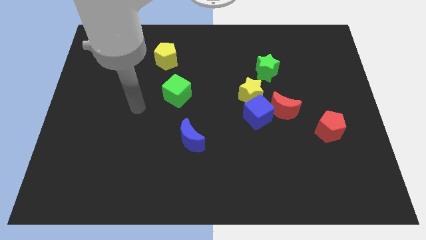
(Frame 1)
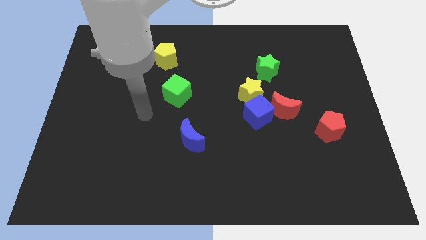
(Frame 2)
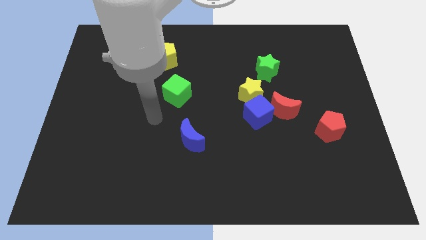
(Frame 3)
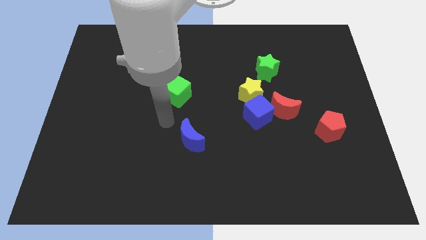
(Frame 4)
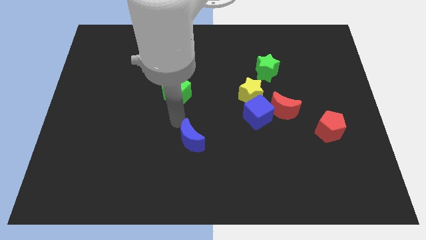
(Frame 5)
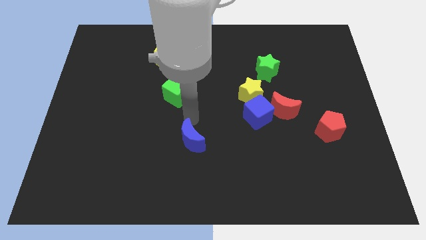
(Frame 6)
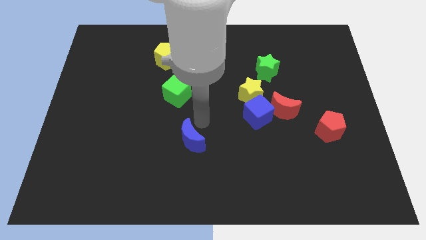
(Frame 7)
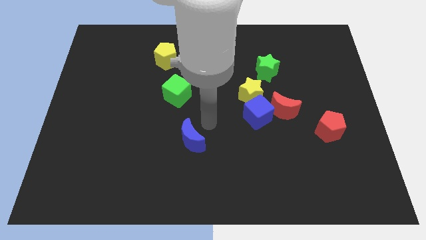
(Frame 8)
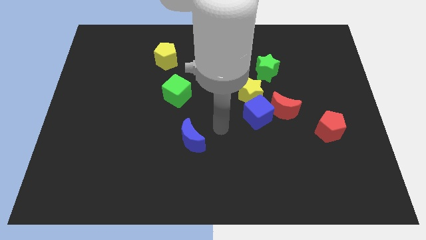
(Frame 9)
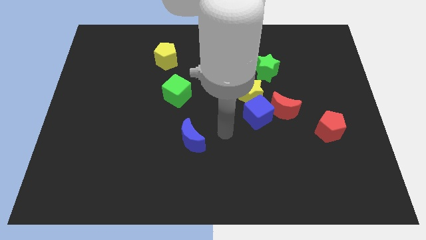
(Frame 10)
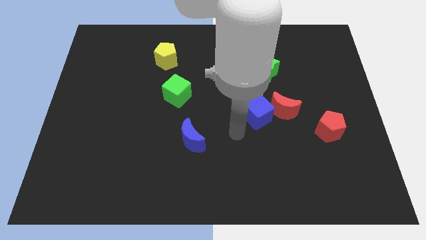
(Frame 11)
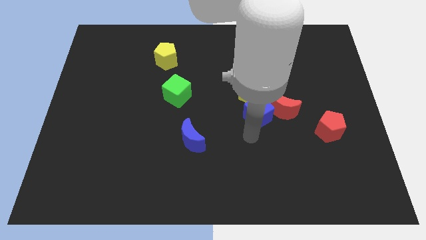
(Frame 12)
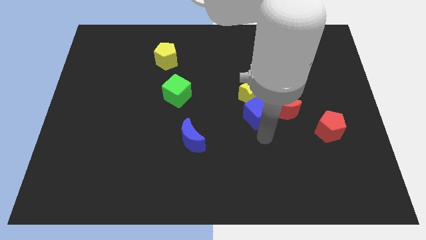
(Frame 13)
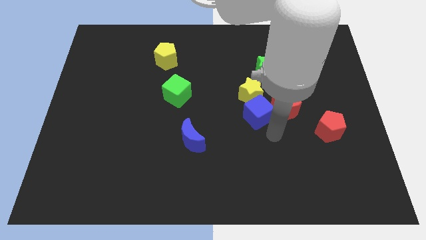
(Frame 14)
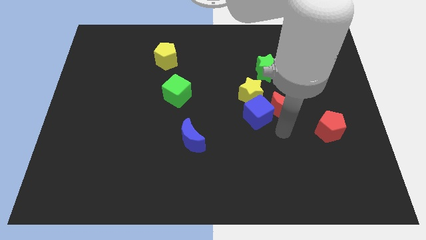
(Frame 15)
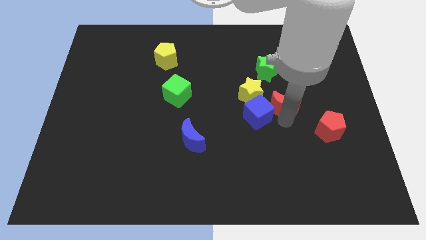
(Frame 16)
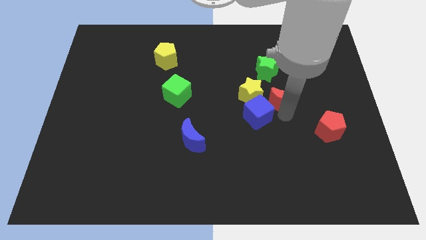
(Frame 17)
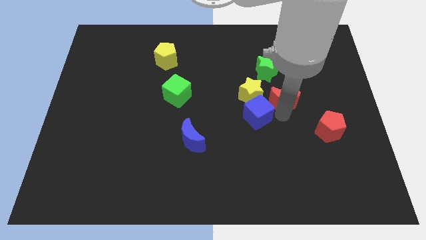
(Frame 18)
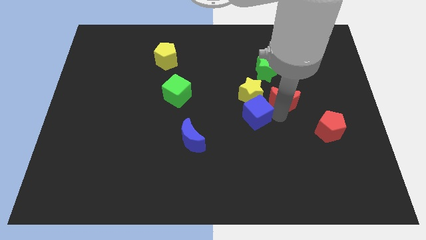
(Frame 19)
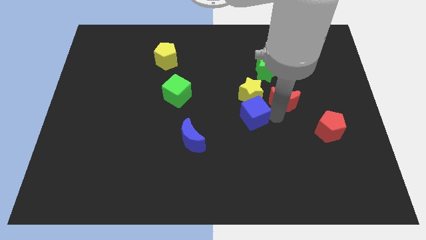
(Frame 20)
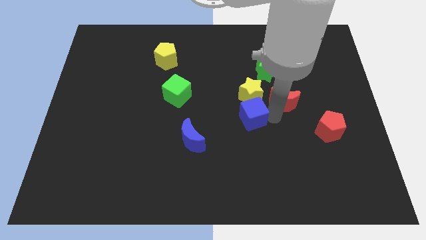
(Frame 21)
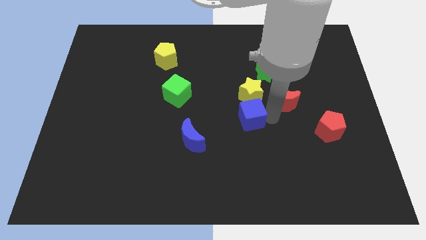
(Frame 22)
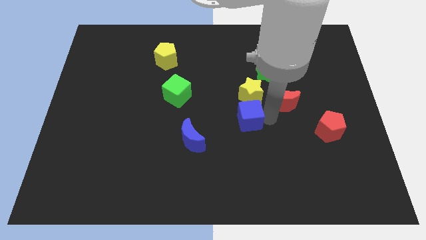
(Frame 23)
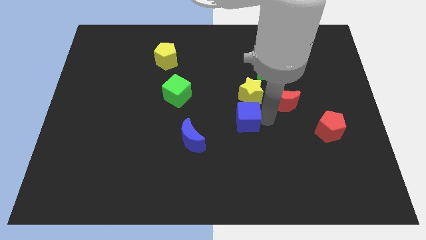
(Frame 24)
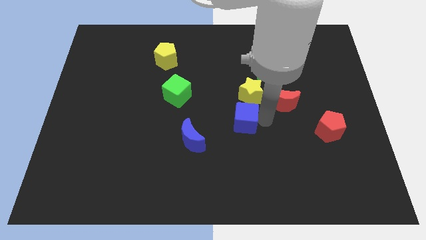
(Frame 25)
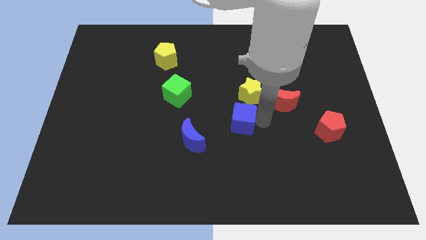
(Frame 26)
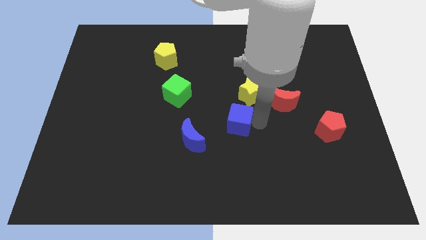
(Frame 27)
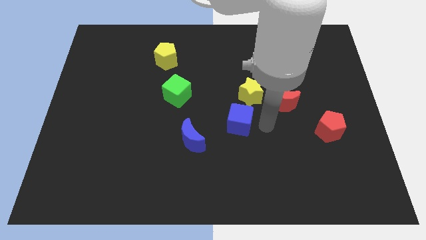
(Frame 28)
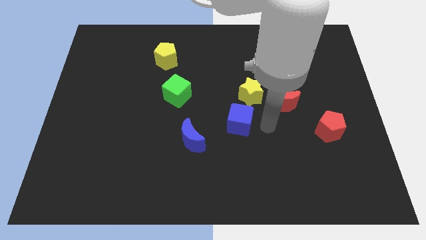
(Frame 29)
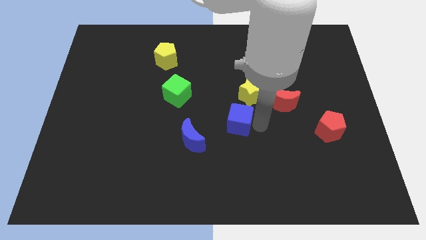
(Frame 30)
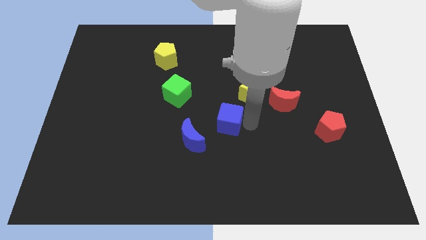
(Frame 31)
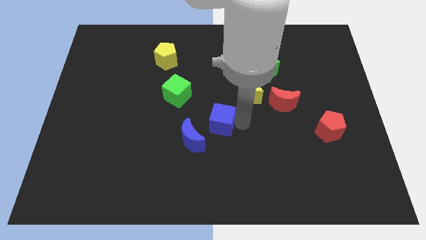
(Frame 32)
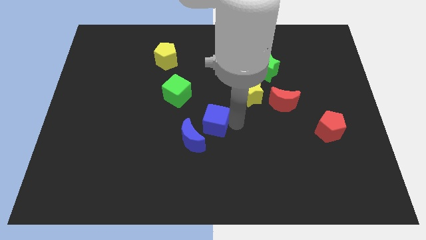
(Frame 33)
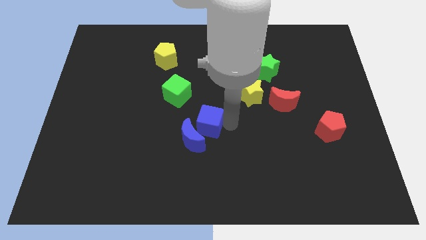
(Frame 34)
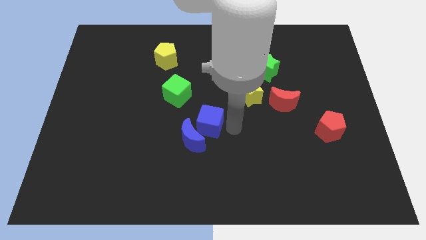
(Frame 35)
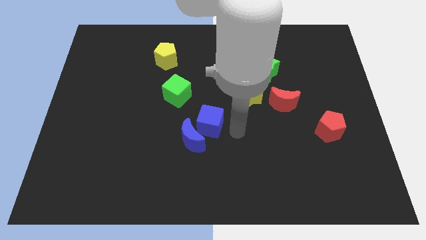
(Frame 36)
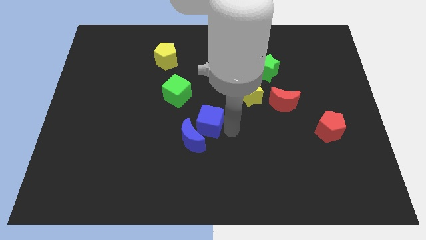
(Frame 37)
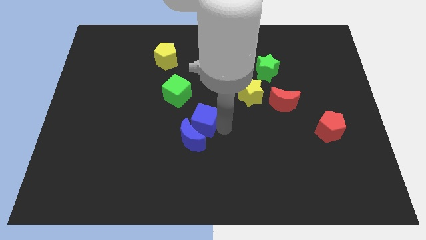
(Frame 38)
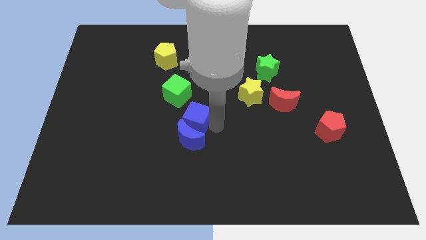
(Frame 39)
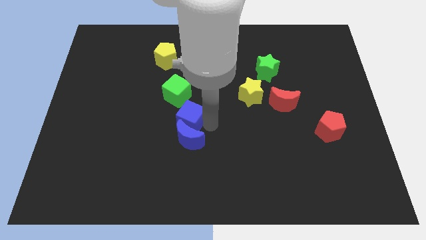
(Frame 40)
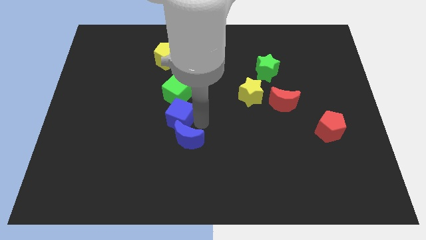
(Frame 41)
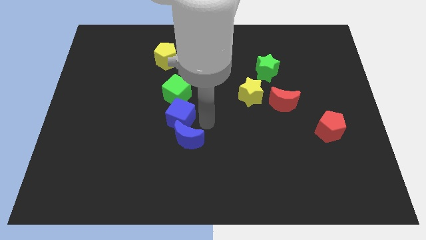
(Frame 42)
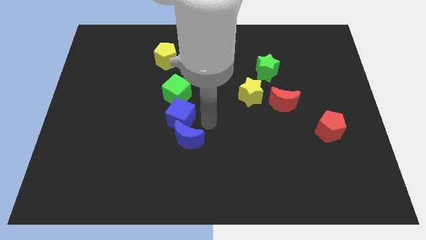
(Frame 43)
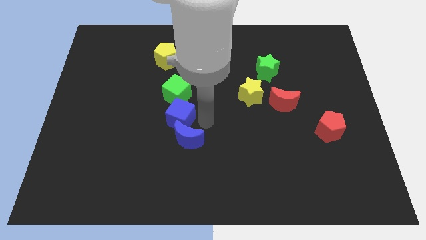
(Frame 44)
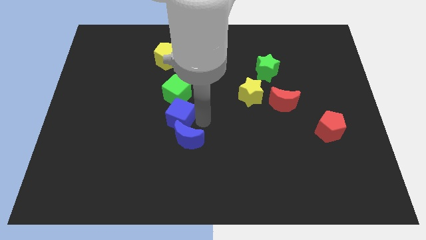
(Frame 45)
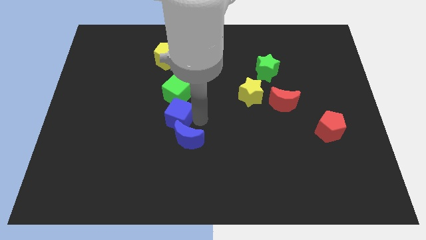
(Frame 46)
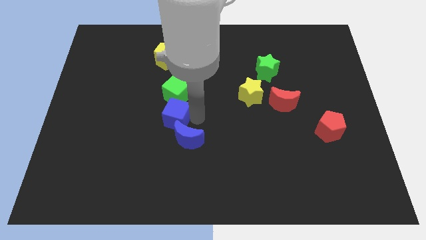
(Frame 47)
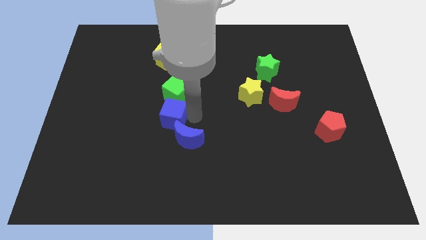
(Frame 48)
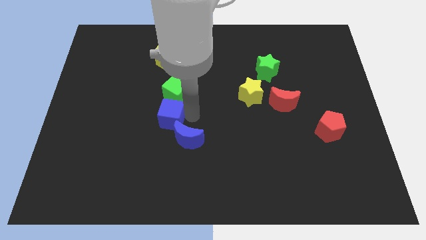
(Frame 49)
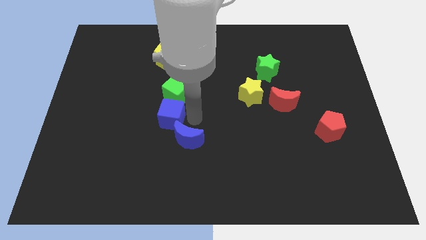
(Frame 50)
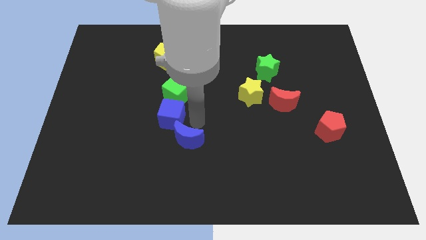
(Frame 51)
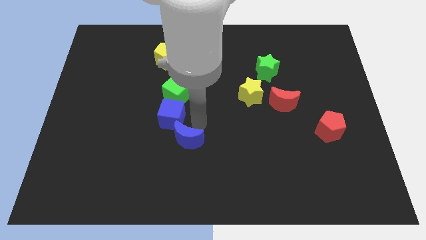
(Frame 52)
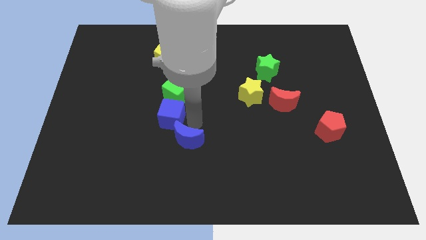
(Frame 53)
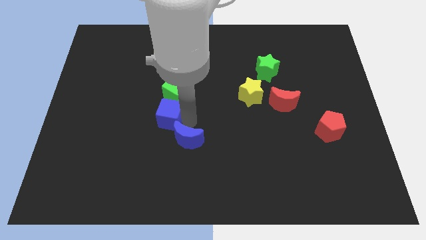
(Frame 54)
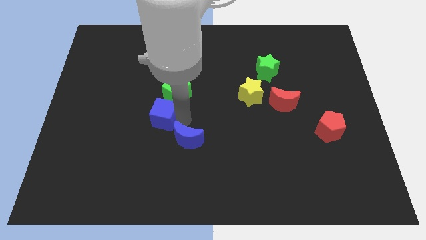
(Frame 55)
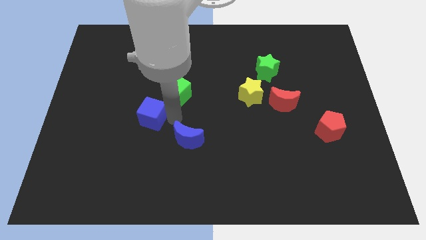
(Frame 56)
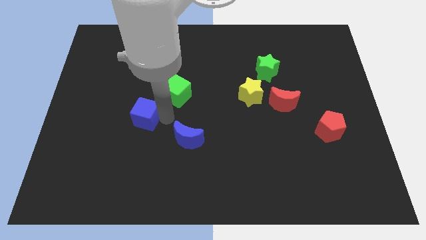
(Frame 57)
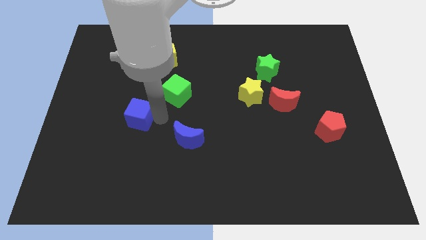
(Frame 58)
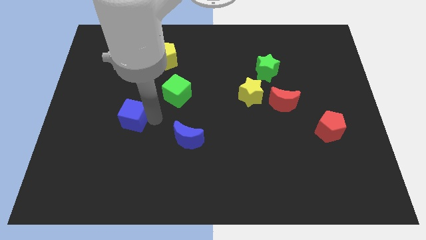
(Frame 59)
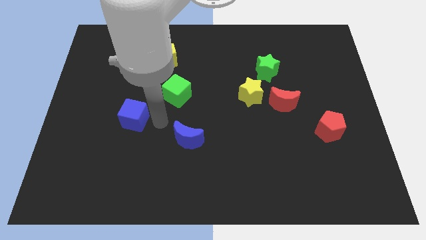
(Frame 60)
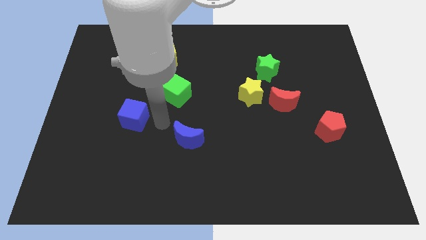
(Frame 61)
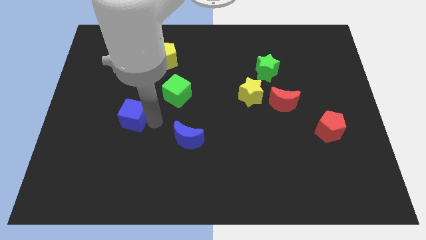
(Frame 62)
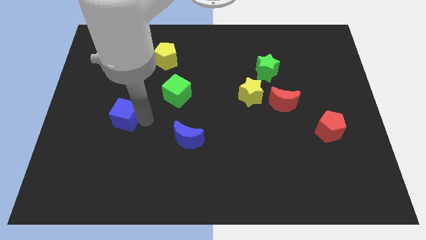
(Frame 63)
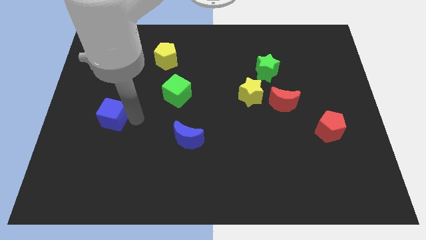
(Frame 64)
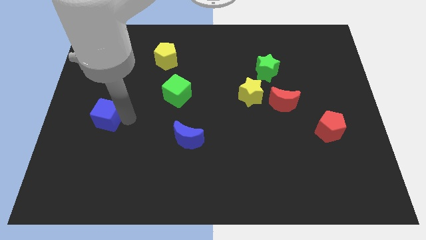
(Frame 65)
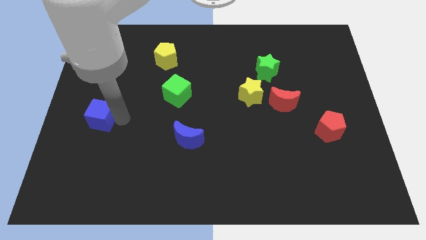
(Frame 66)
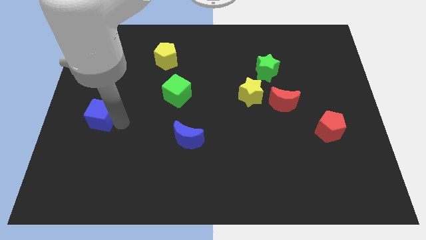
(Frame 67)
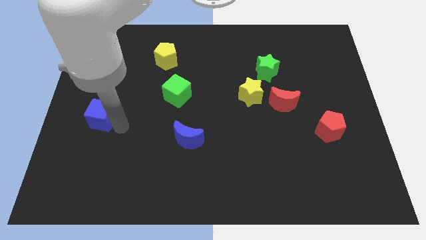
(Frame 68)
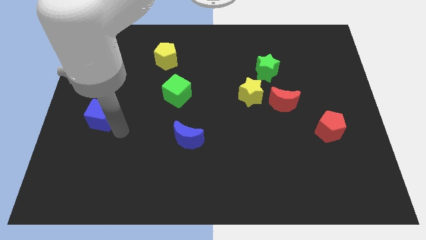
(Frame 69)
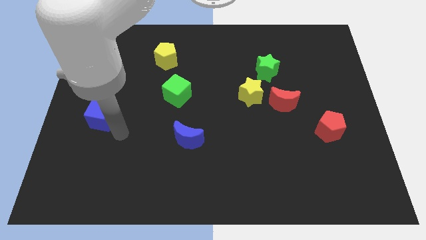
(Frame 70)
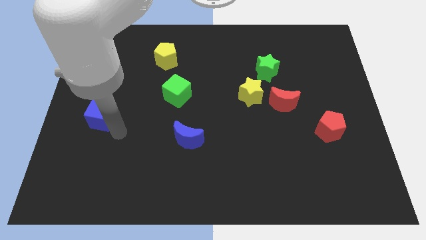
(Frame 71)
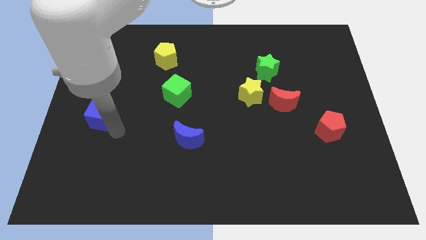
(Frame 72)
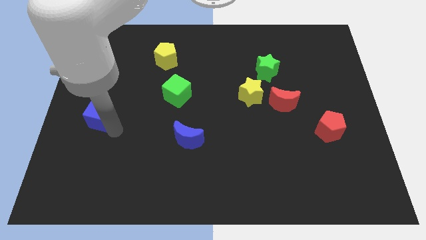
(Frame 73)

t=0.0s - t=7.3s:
move the blue cube to the center left

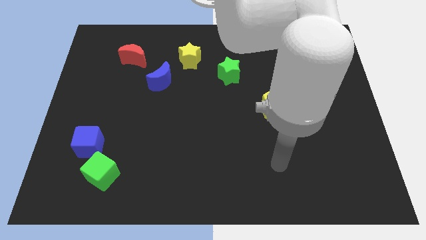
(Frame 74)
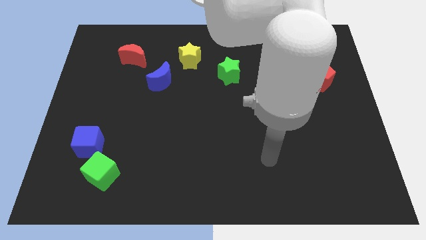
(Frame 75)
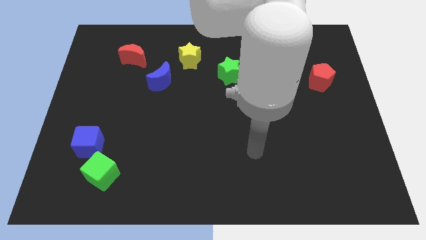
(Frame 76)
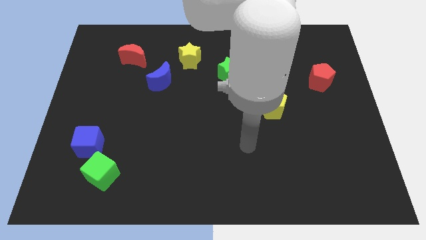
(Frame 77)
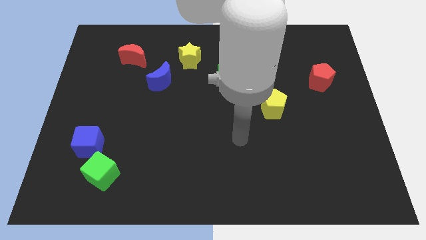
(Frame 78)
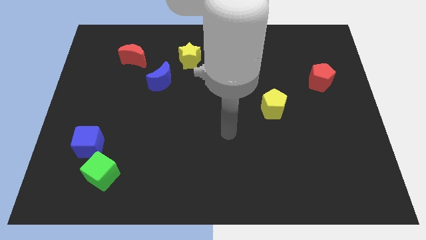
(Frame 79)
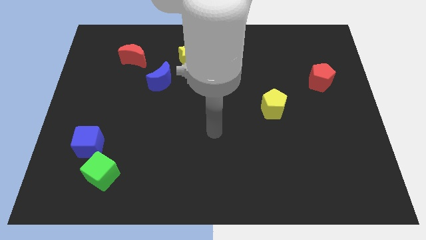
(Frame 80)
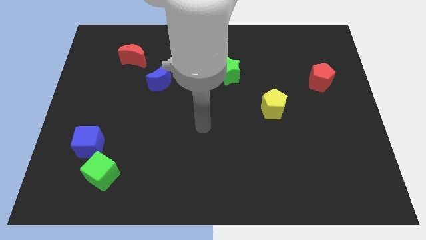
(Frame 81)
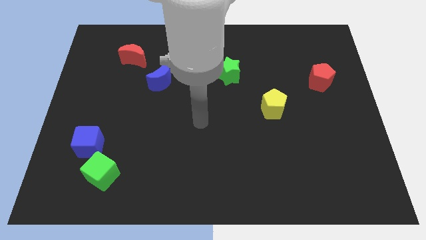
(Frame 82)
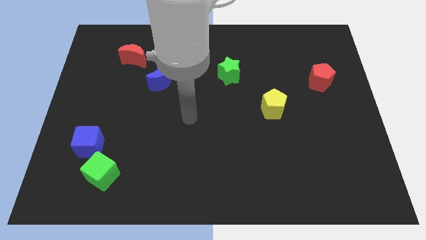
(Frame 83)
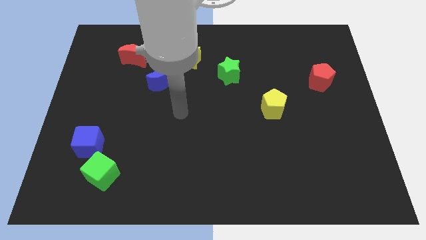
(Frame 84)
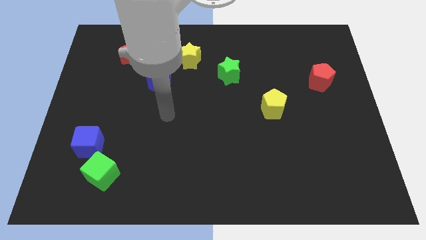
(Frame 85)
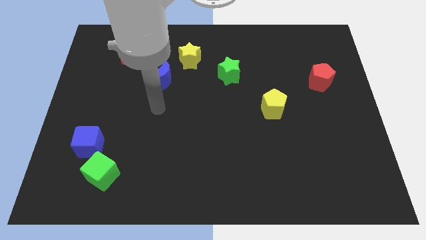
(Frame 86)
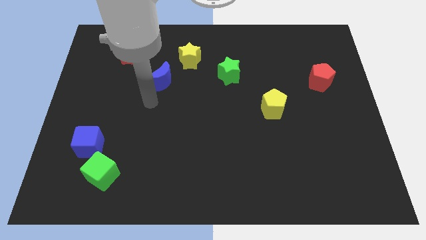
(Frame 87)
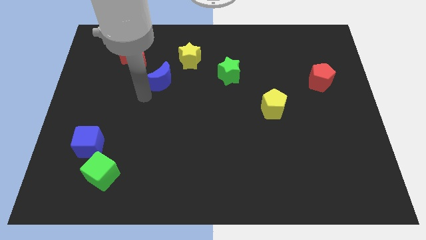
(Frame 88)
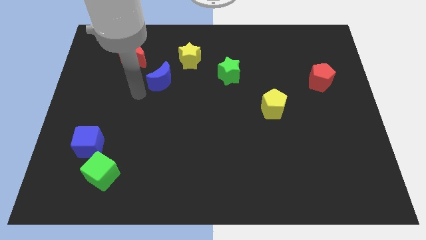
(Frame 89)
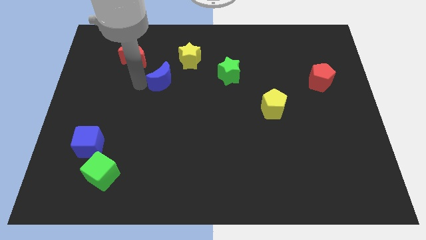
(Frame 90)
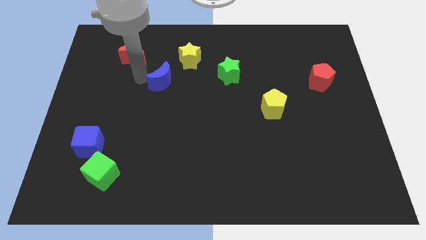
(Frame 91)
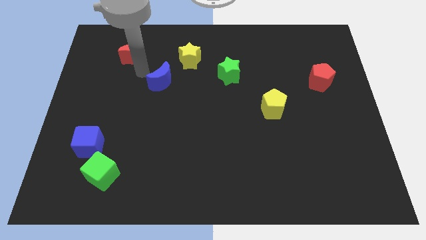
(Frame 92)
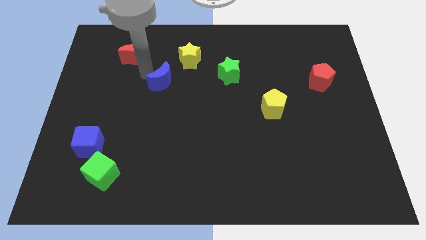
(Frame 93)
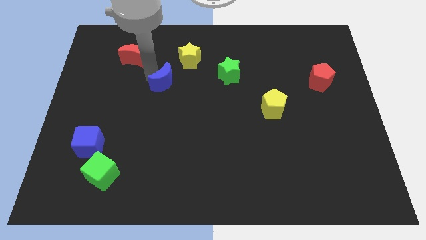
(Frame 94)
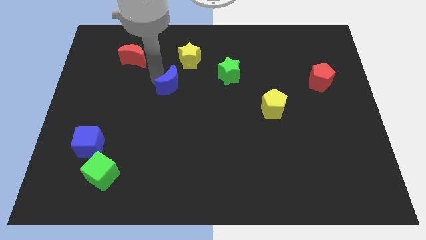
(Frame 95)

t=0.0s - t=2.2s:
move the blue moon to the center of the board
